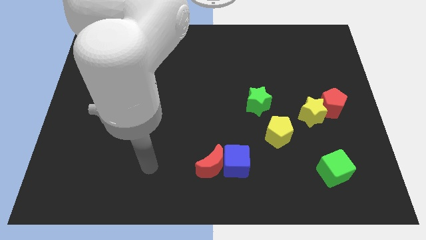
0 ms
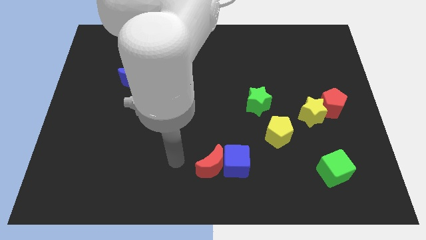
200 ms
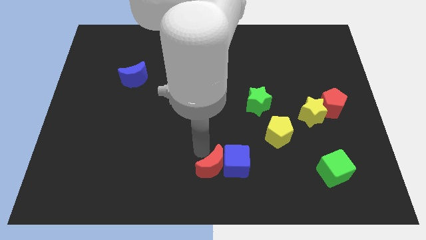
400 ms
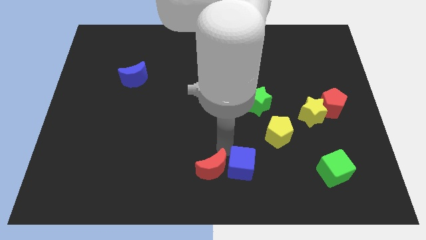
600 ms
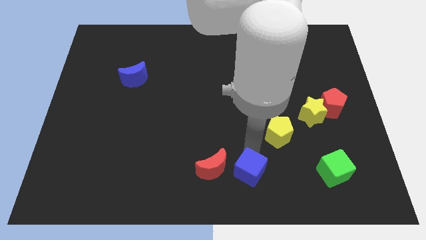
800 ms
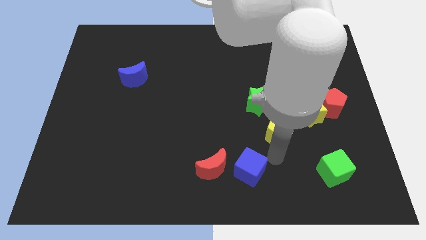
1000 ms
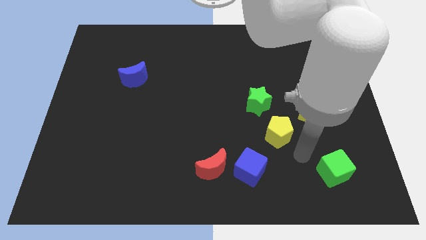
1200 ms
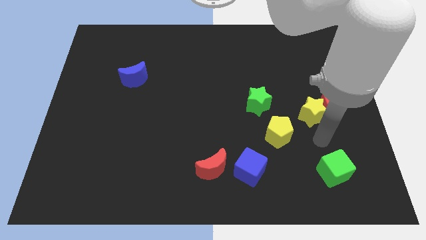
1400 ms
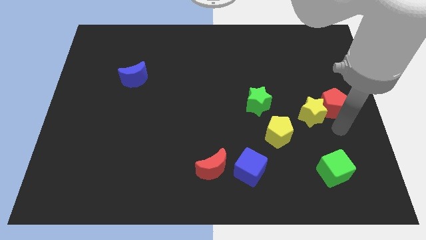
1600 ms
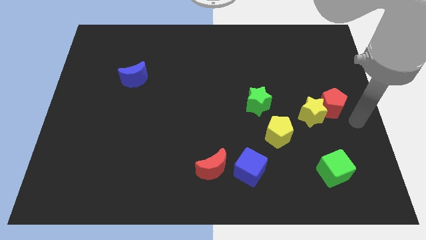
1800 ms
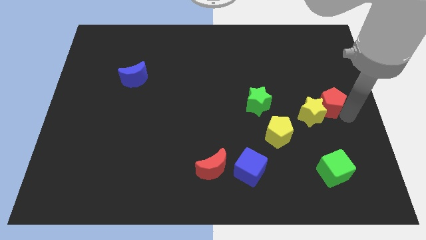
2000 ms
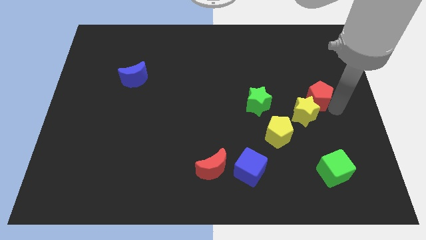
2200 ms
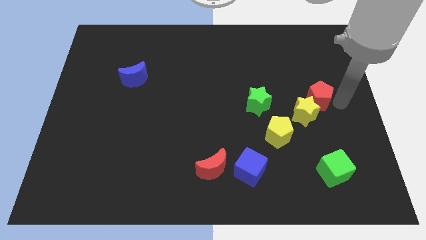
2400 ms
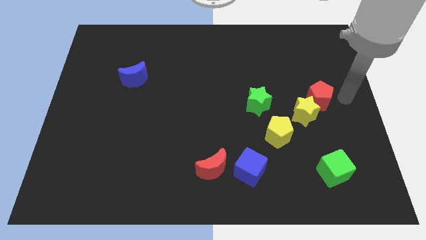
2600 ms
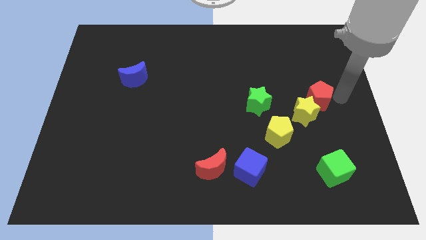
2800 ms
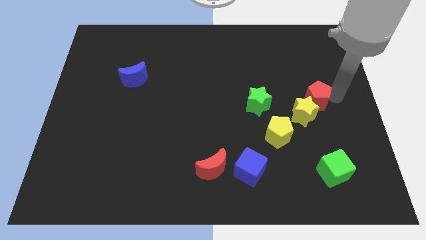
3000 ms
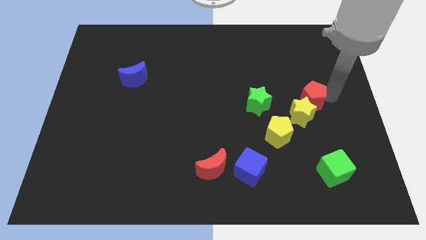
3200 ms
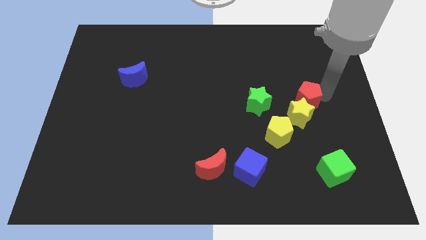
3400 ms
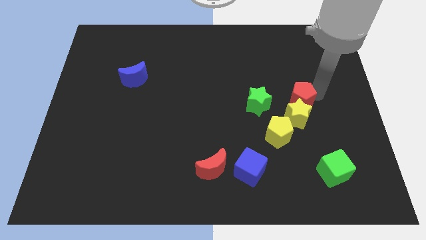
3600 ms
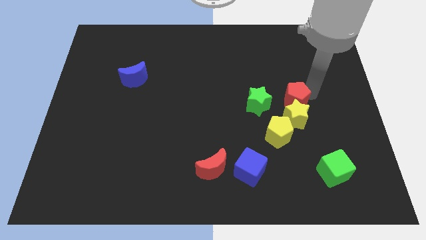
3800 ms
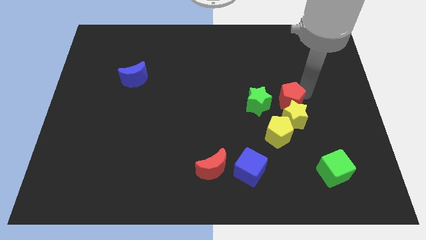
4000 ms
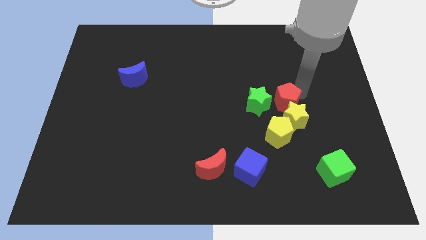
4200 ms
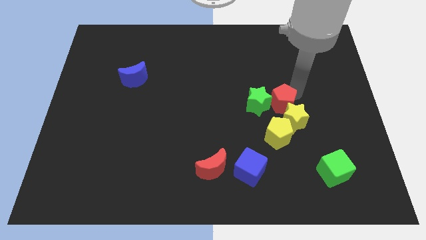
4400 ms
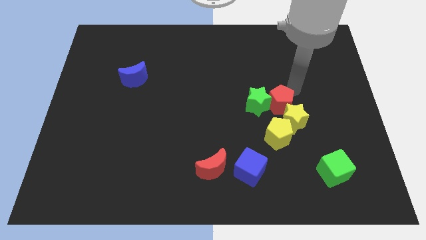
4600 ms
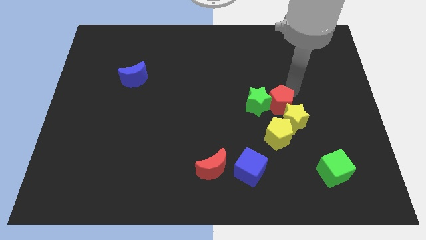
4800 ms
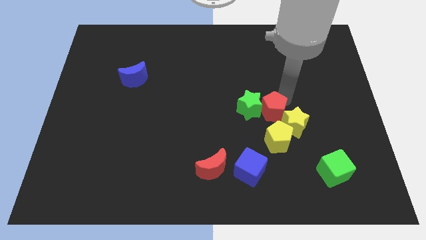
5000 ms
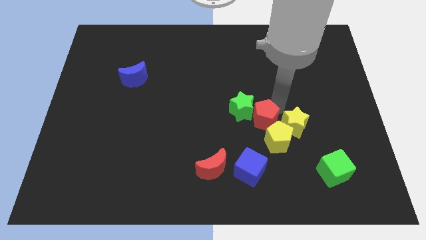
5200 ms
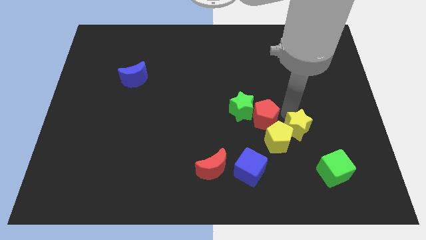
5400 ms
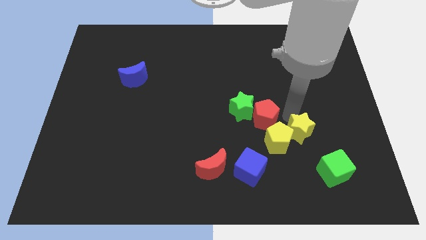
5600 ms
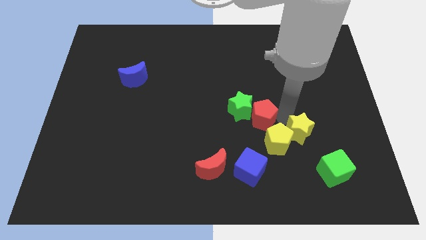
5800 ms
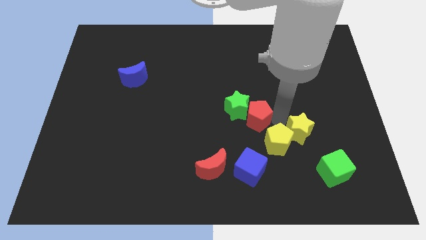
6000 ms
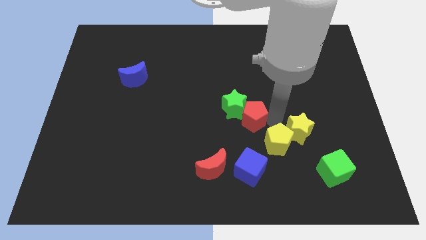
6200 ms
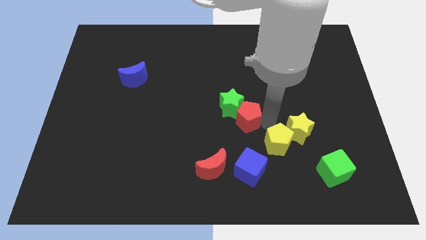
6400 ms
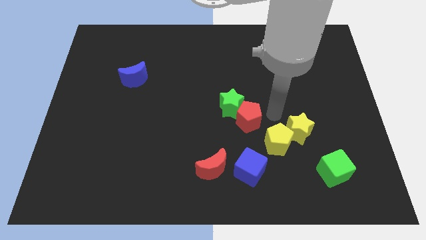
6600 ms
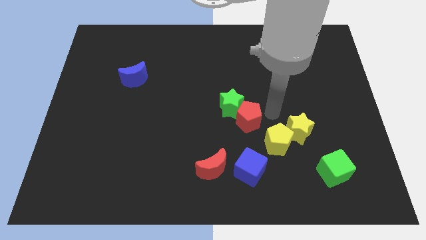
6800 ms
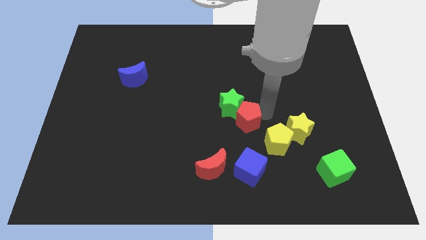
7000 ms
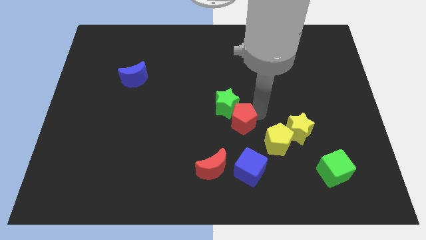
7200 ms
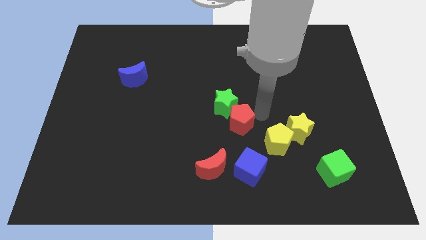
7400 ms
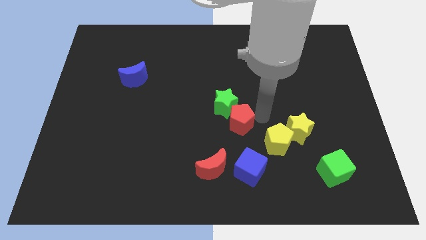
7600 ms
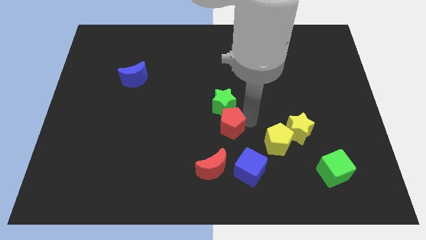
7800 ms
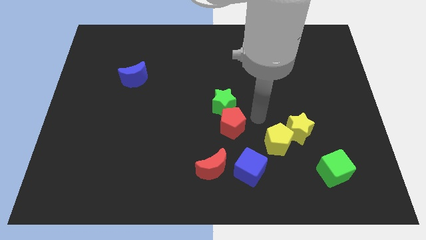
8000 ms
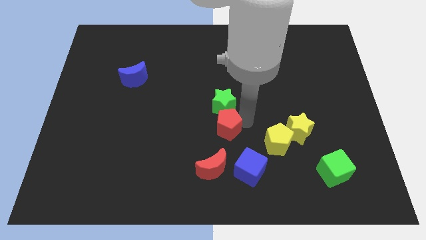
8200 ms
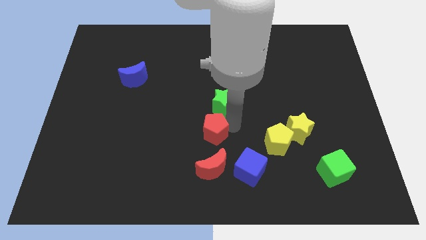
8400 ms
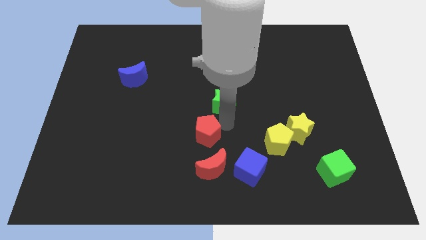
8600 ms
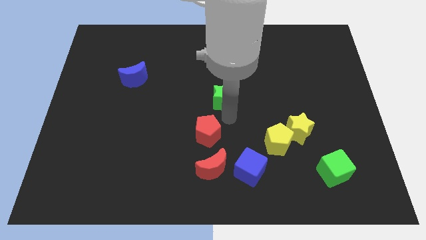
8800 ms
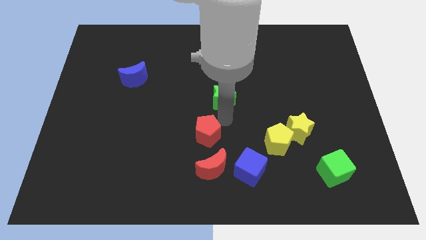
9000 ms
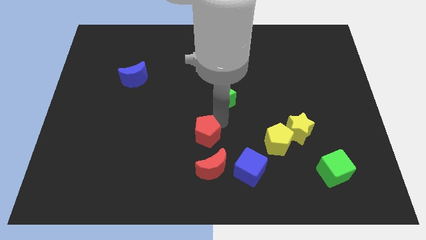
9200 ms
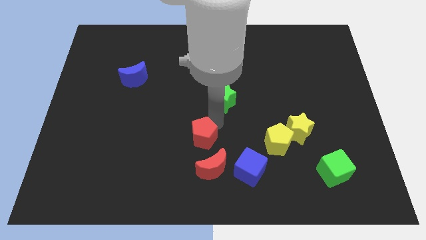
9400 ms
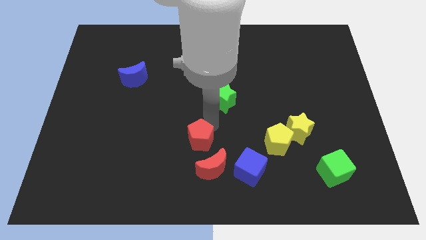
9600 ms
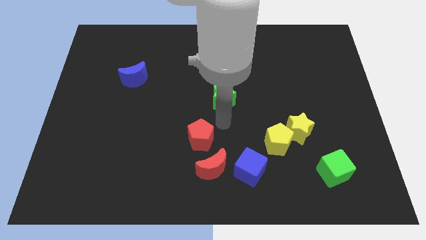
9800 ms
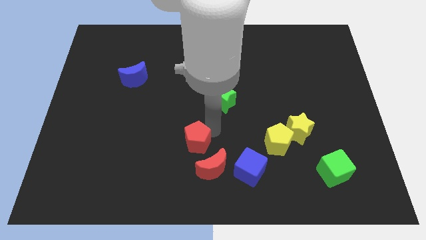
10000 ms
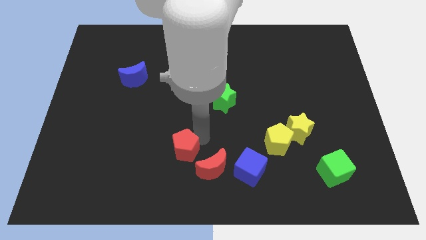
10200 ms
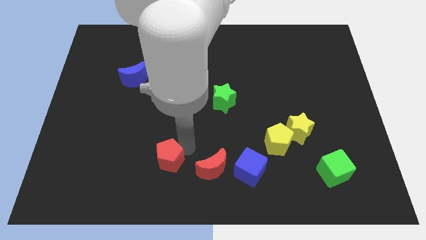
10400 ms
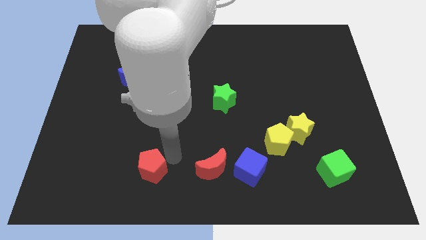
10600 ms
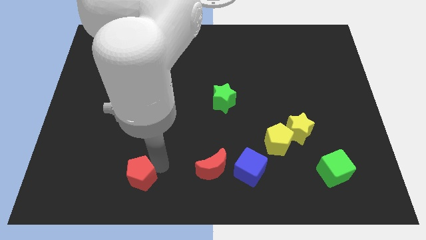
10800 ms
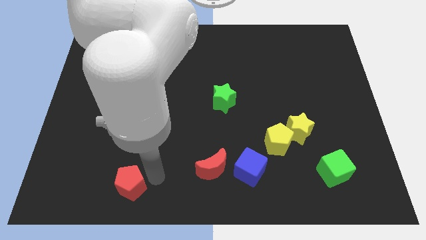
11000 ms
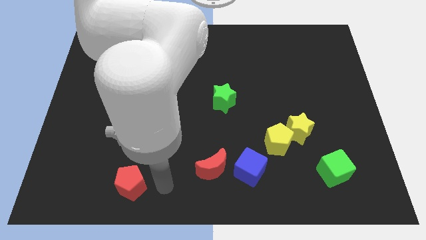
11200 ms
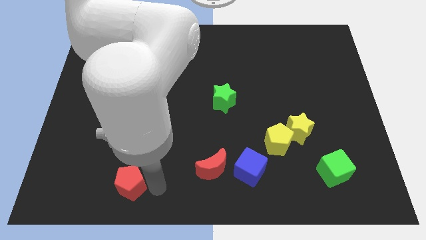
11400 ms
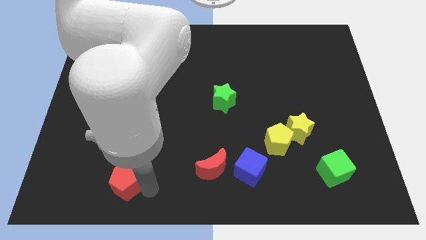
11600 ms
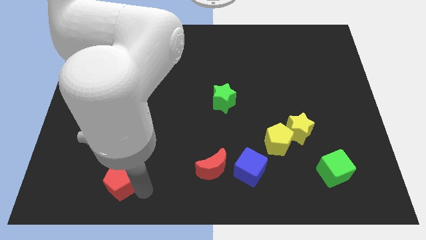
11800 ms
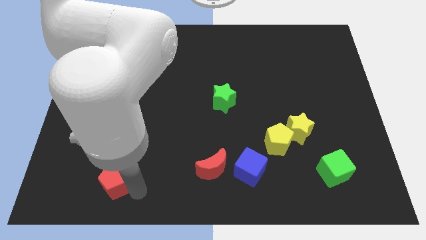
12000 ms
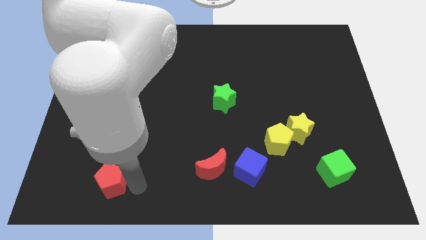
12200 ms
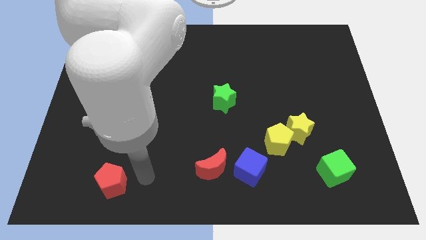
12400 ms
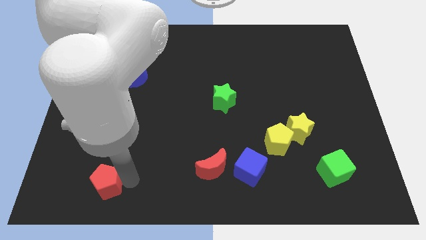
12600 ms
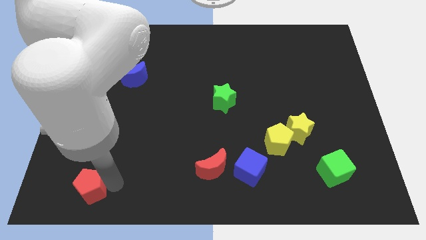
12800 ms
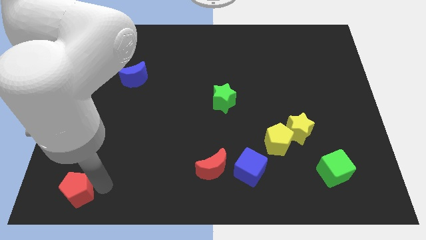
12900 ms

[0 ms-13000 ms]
push the red pentagon to the bottom left
